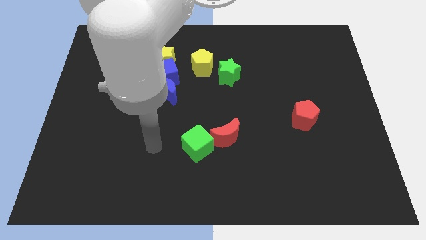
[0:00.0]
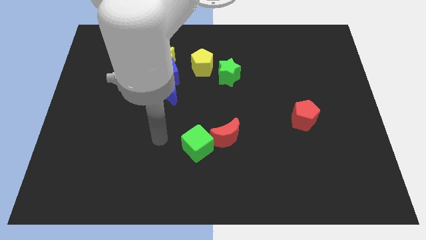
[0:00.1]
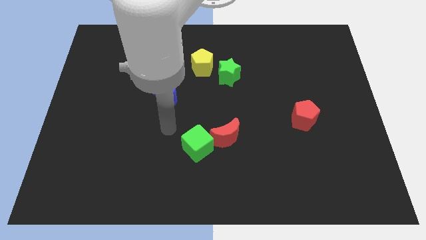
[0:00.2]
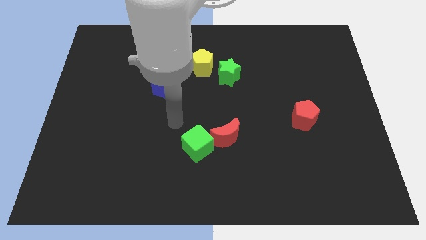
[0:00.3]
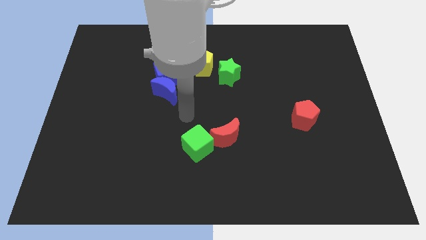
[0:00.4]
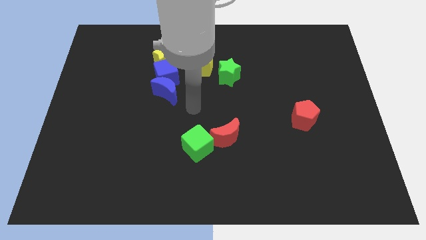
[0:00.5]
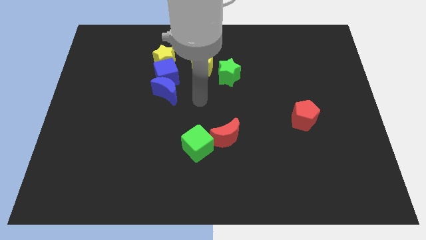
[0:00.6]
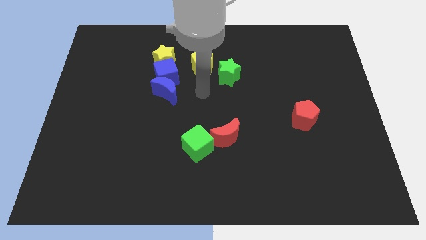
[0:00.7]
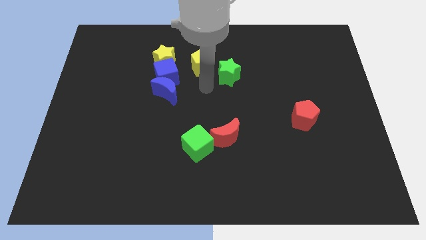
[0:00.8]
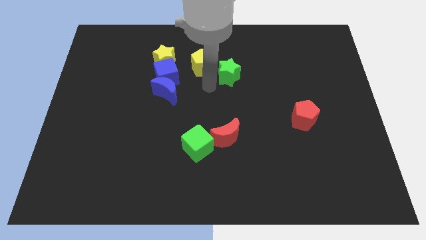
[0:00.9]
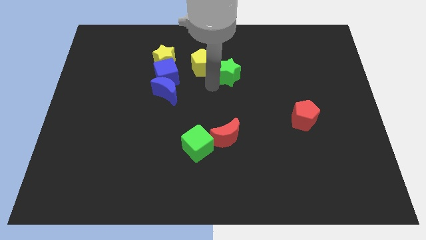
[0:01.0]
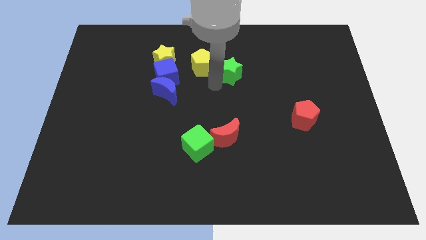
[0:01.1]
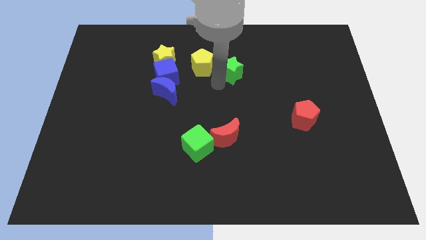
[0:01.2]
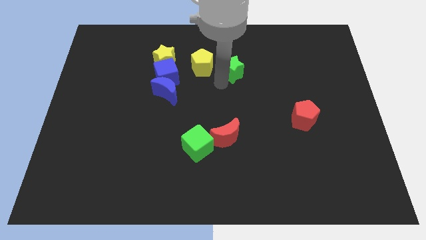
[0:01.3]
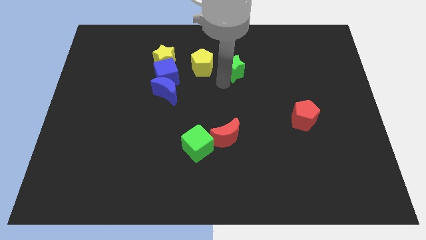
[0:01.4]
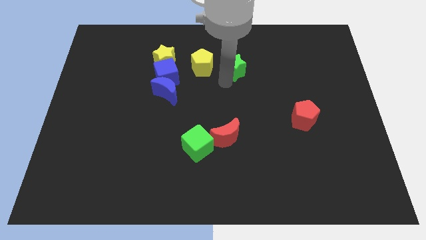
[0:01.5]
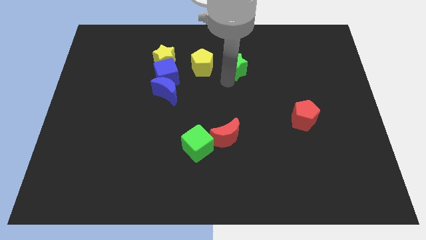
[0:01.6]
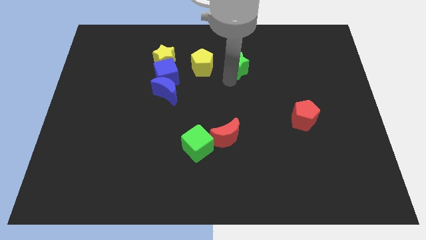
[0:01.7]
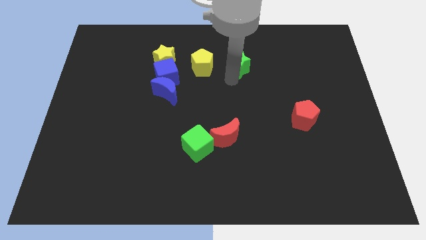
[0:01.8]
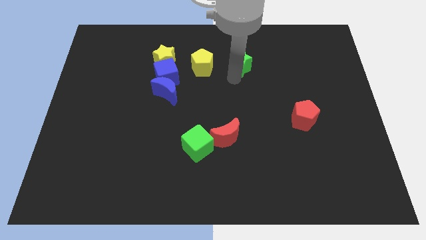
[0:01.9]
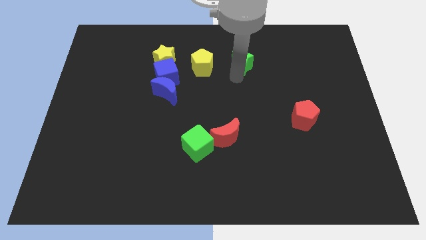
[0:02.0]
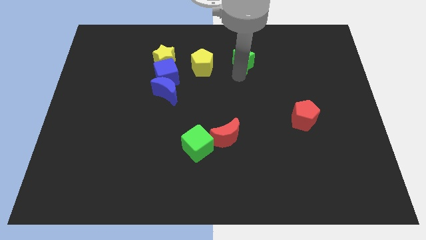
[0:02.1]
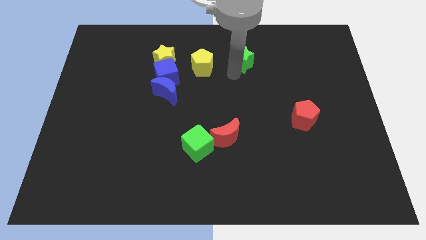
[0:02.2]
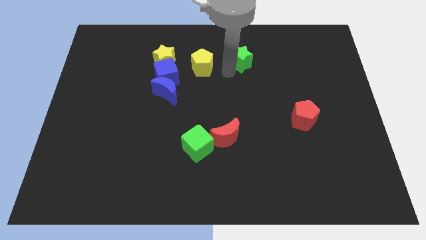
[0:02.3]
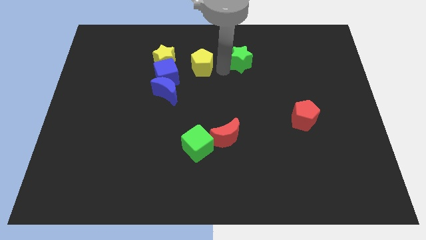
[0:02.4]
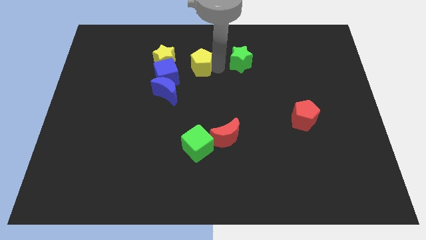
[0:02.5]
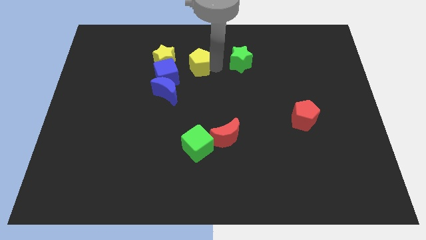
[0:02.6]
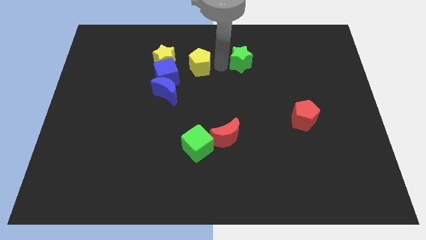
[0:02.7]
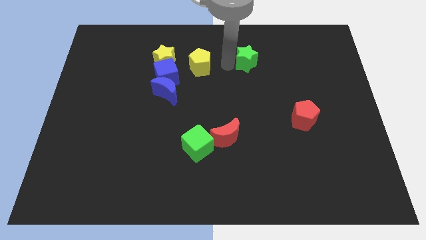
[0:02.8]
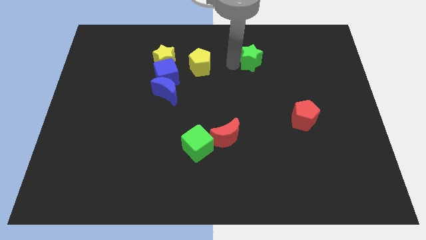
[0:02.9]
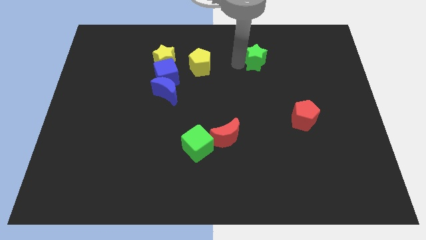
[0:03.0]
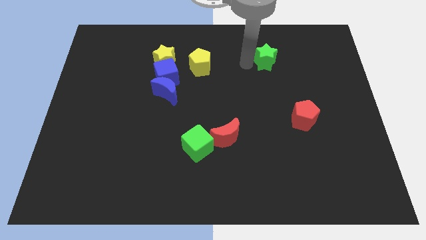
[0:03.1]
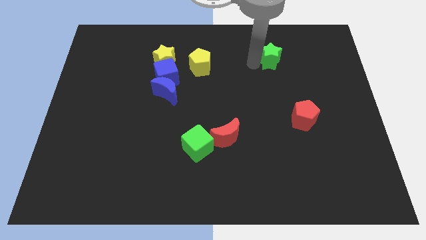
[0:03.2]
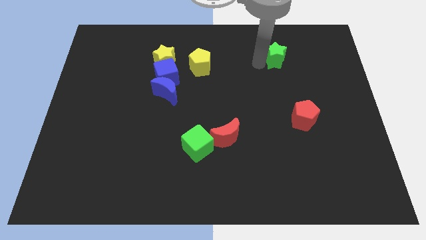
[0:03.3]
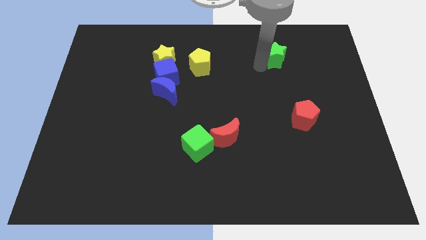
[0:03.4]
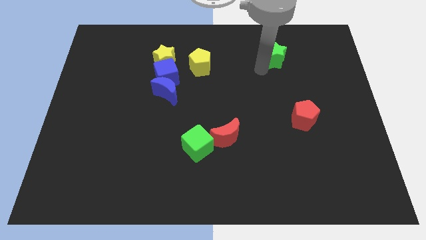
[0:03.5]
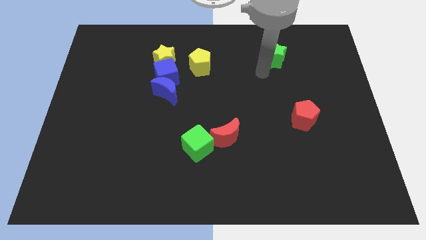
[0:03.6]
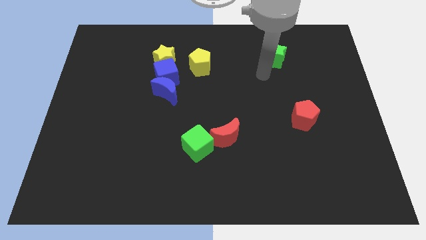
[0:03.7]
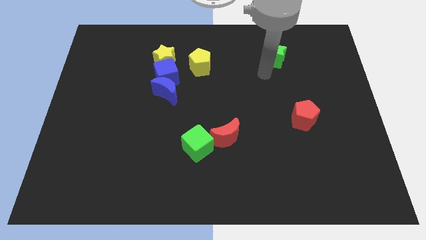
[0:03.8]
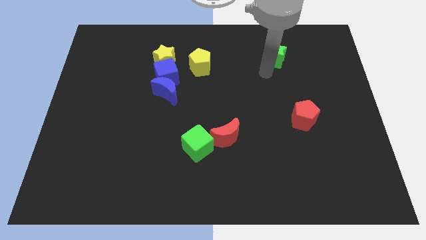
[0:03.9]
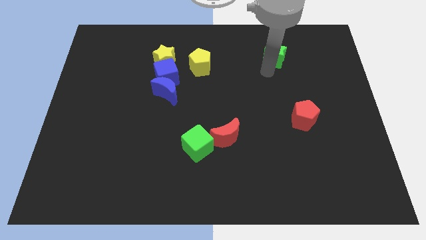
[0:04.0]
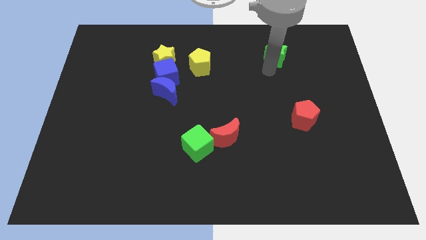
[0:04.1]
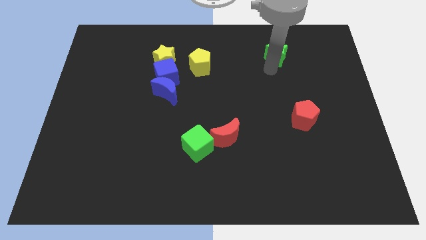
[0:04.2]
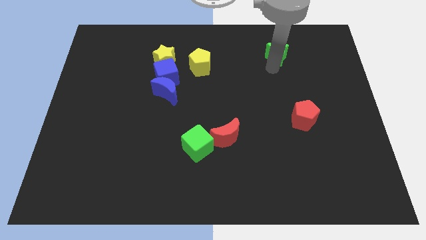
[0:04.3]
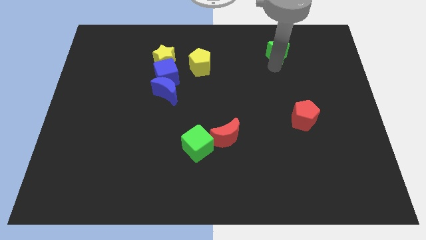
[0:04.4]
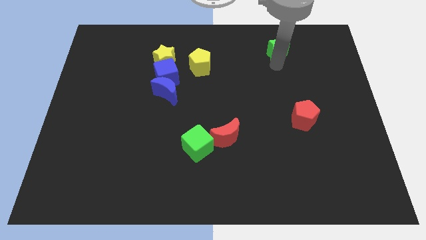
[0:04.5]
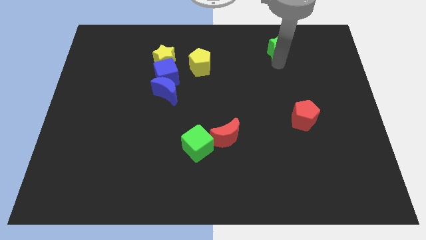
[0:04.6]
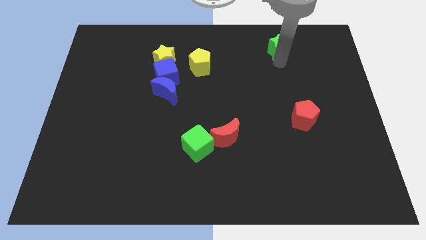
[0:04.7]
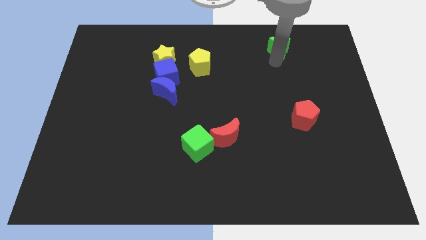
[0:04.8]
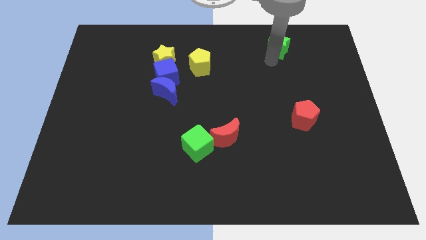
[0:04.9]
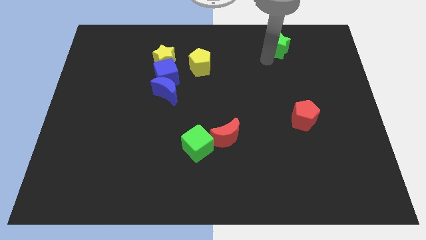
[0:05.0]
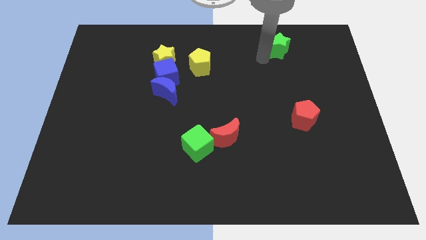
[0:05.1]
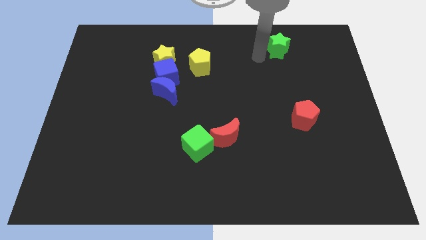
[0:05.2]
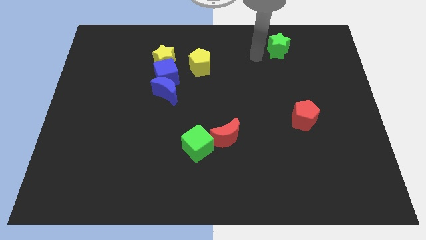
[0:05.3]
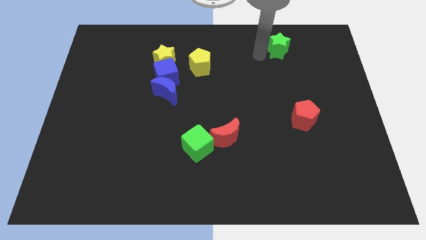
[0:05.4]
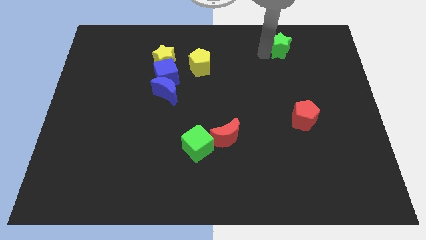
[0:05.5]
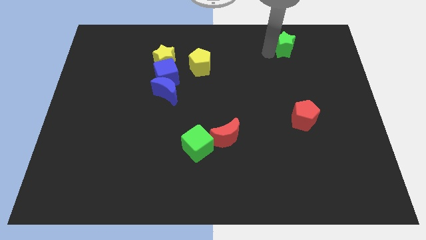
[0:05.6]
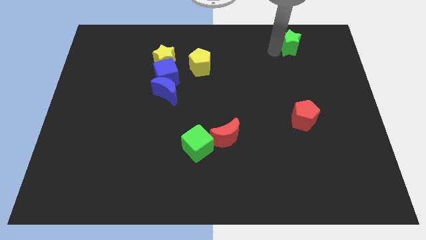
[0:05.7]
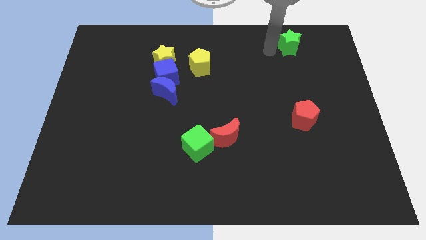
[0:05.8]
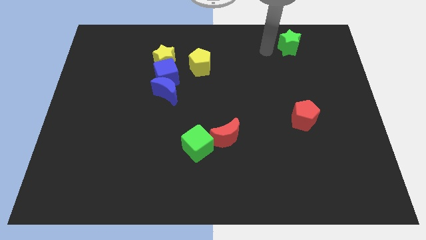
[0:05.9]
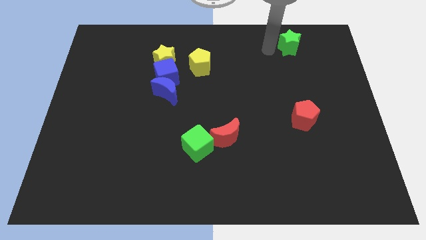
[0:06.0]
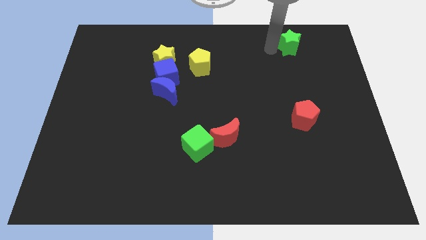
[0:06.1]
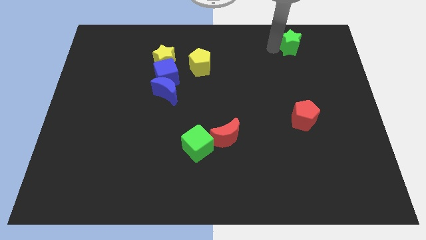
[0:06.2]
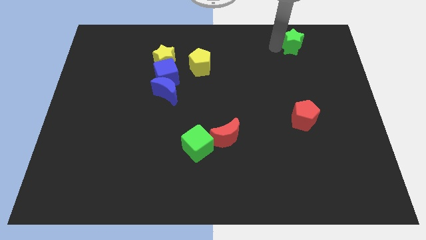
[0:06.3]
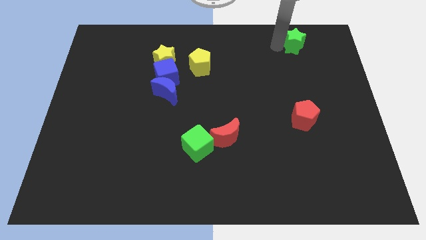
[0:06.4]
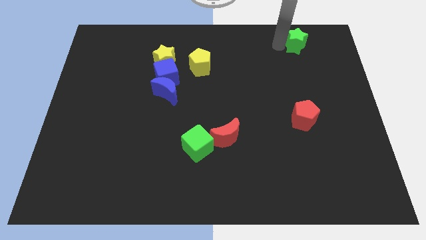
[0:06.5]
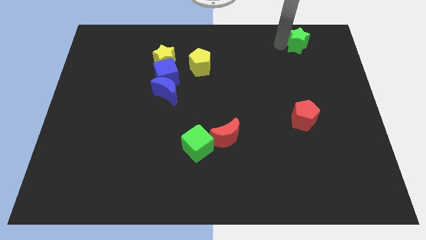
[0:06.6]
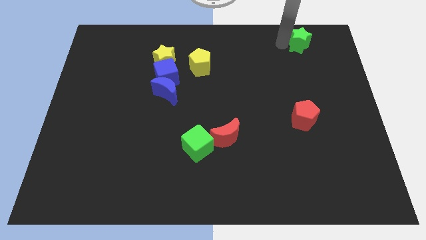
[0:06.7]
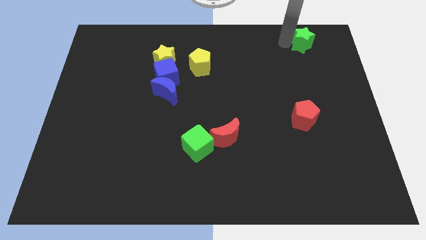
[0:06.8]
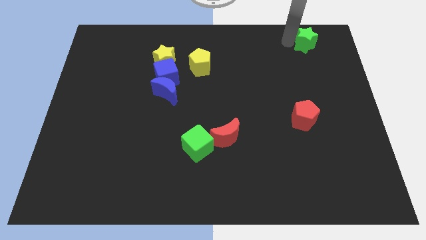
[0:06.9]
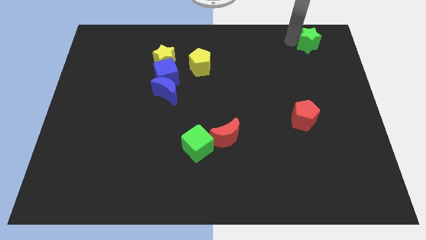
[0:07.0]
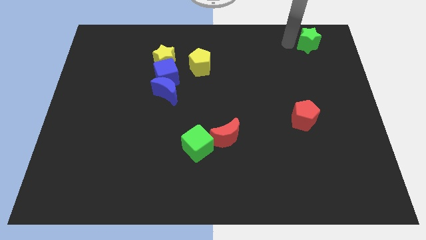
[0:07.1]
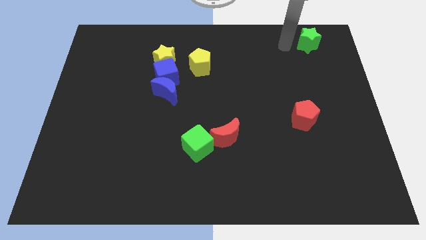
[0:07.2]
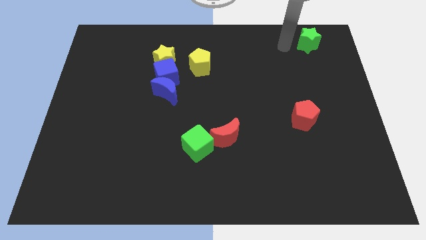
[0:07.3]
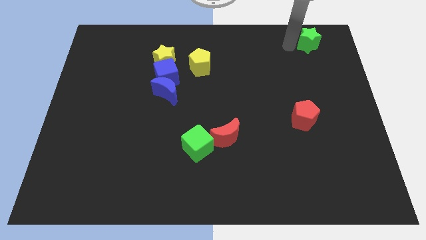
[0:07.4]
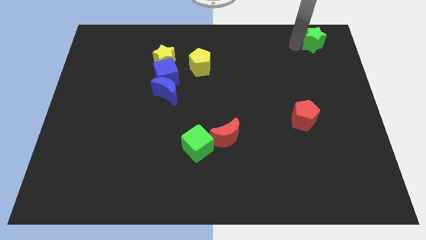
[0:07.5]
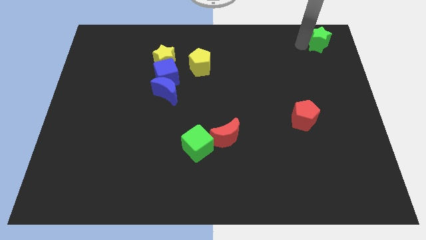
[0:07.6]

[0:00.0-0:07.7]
move the green star to the top right

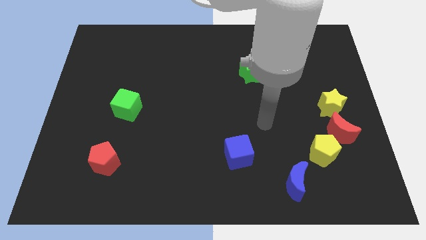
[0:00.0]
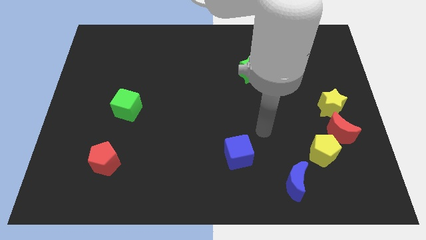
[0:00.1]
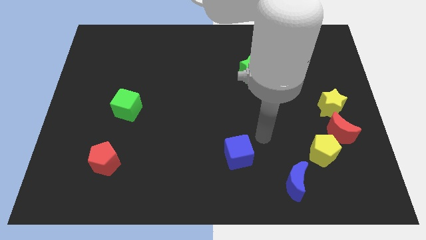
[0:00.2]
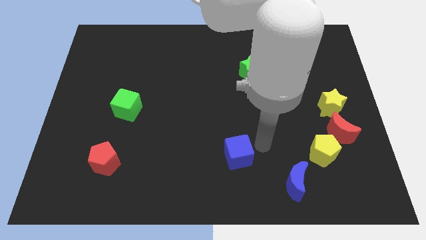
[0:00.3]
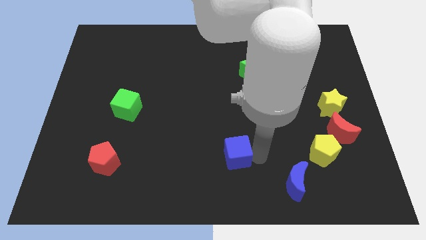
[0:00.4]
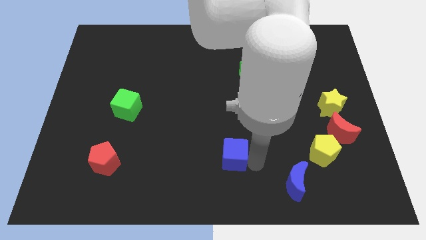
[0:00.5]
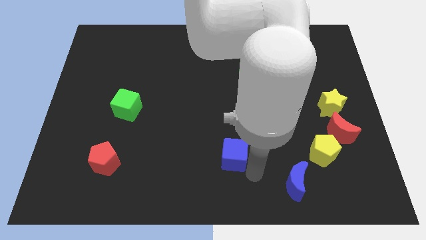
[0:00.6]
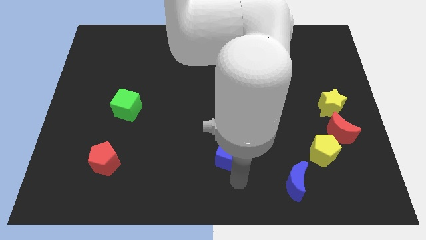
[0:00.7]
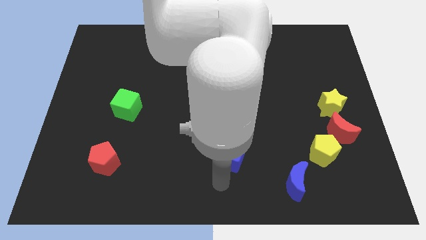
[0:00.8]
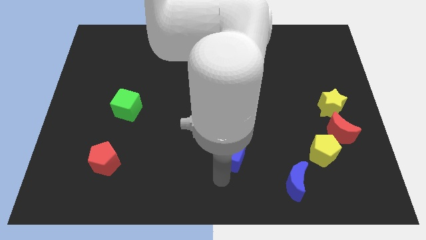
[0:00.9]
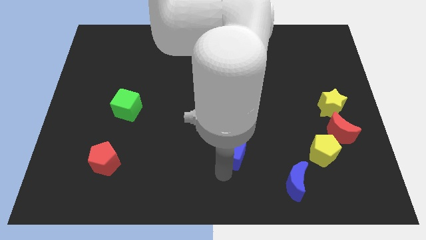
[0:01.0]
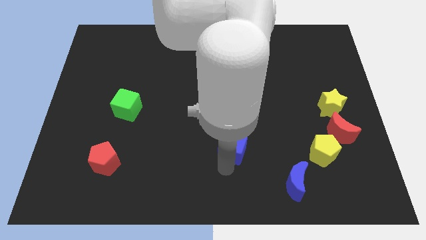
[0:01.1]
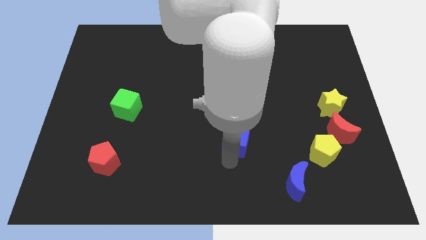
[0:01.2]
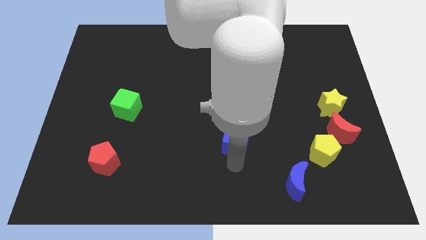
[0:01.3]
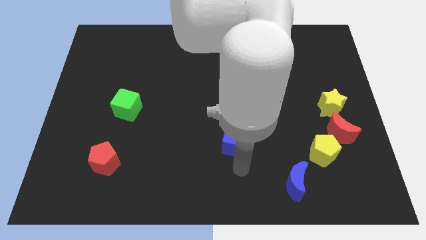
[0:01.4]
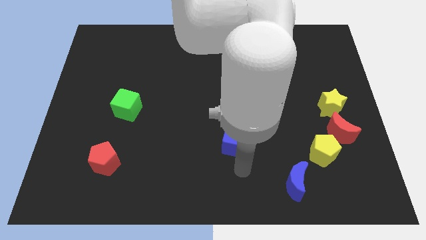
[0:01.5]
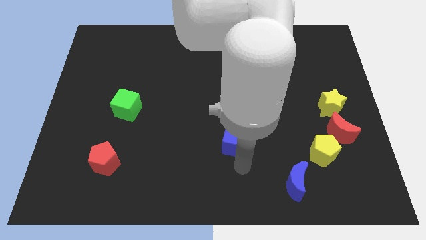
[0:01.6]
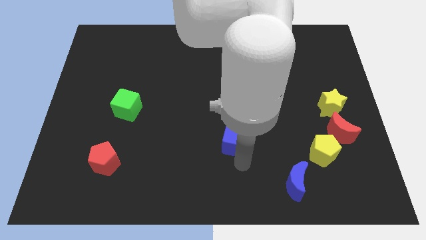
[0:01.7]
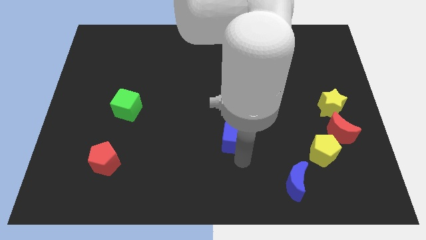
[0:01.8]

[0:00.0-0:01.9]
move the blue cube to the center of the board
